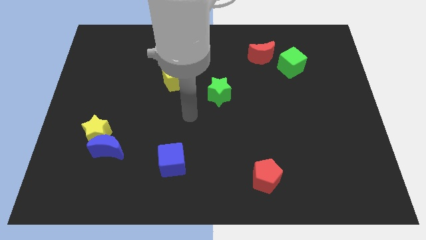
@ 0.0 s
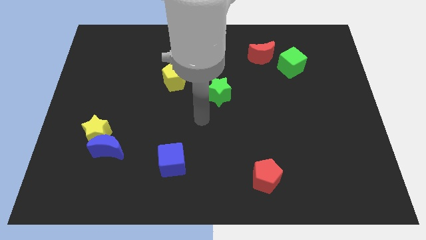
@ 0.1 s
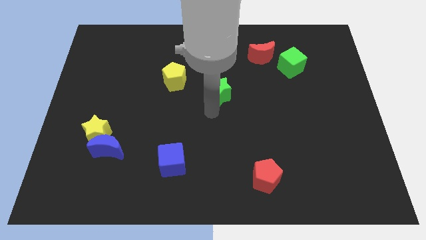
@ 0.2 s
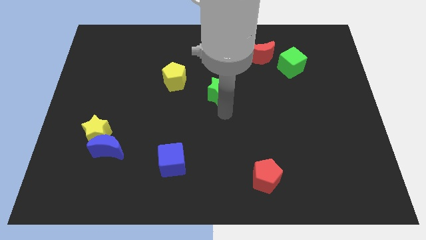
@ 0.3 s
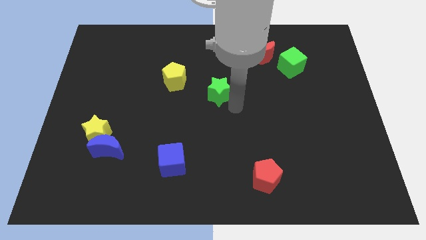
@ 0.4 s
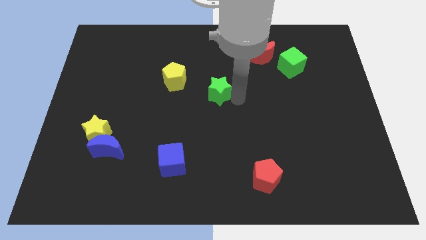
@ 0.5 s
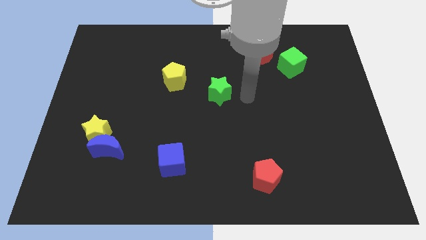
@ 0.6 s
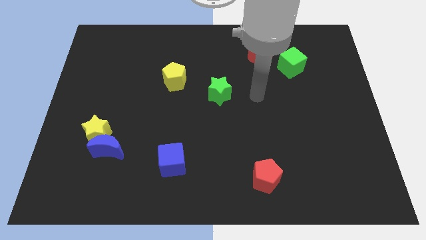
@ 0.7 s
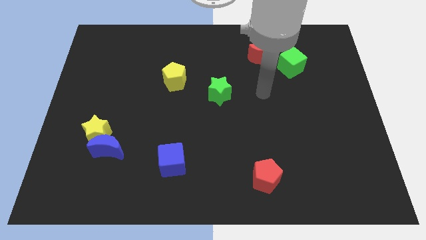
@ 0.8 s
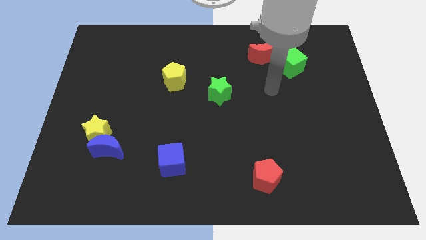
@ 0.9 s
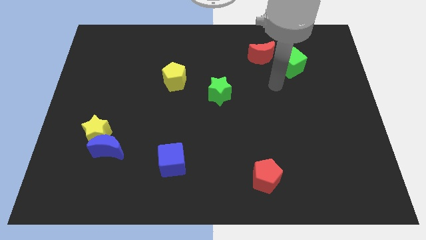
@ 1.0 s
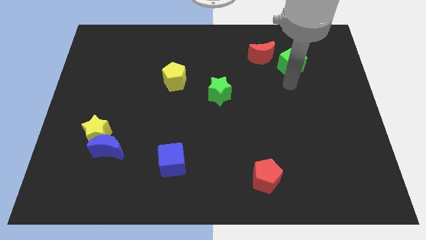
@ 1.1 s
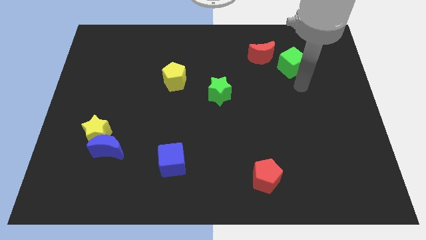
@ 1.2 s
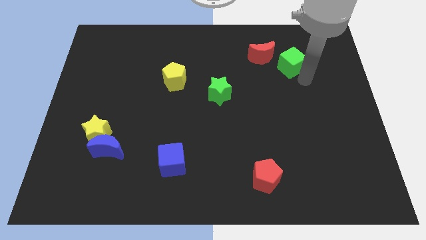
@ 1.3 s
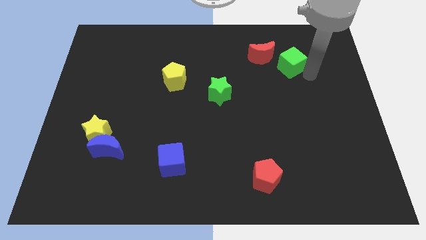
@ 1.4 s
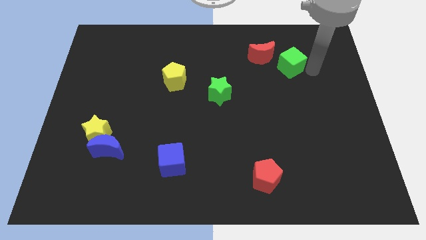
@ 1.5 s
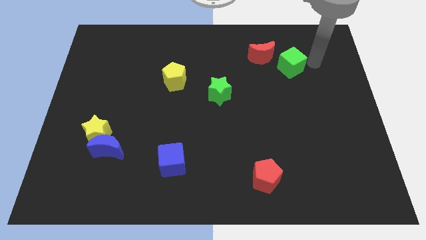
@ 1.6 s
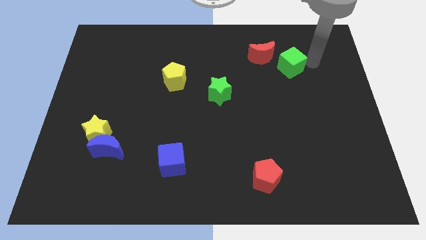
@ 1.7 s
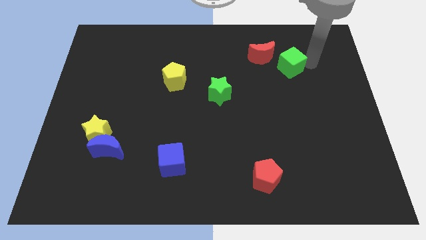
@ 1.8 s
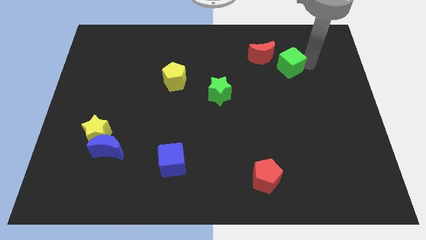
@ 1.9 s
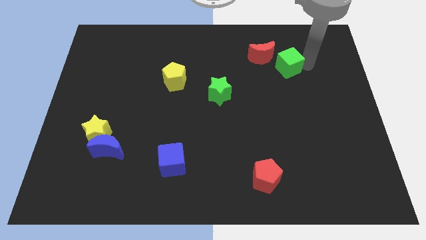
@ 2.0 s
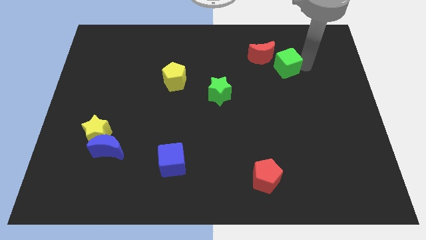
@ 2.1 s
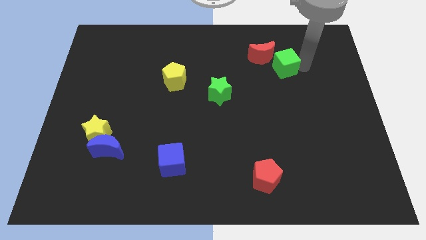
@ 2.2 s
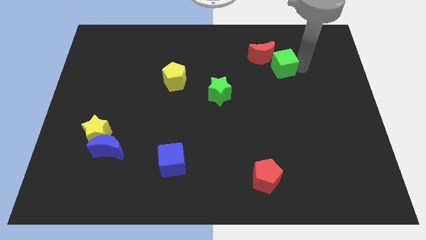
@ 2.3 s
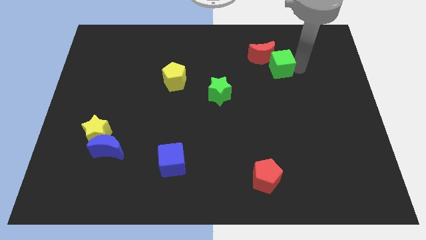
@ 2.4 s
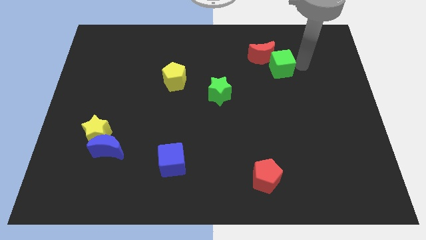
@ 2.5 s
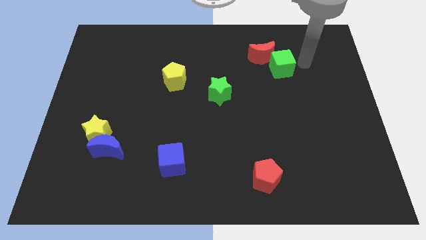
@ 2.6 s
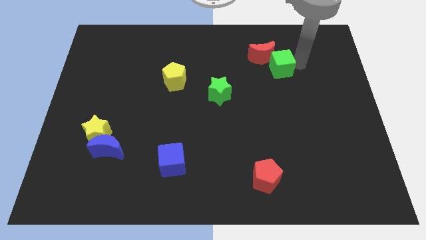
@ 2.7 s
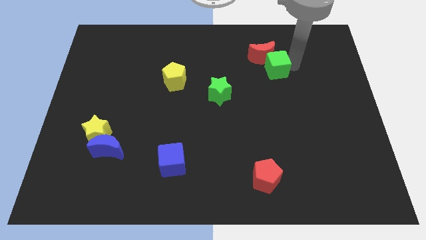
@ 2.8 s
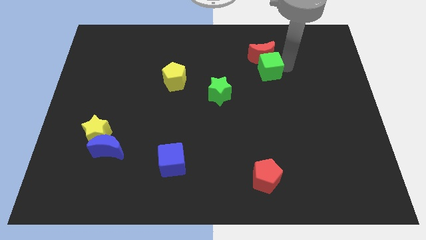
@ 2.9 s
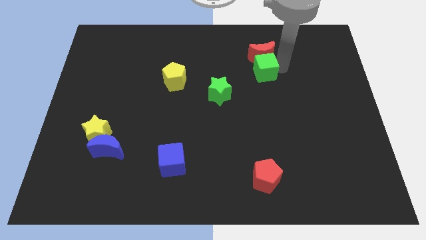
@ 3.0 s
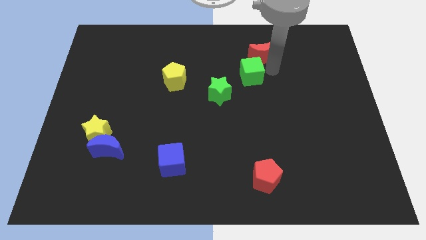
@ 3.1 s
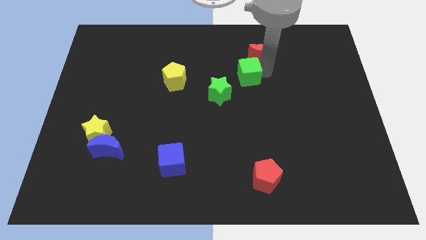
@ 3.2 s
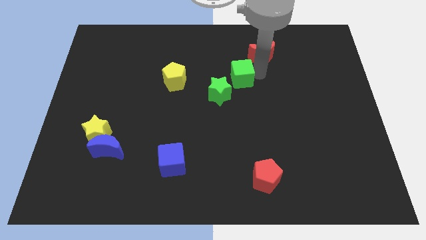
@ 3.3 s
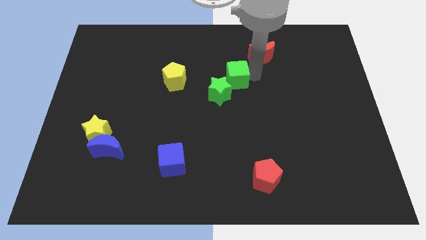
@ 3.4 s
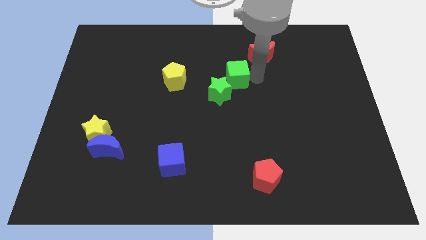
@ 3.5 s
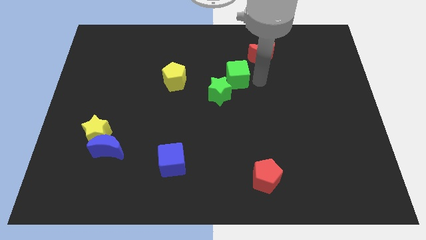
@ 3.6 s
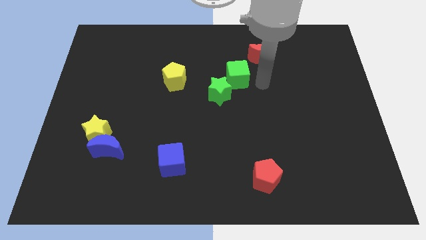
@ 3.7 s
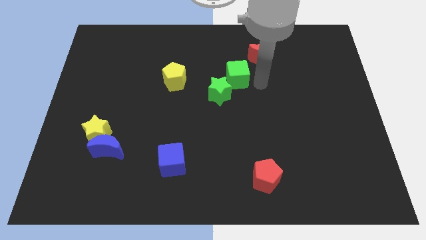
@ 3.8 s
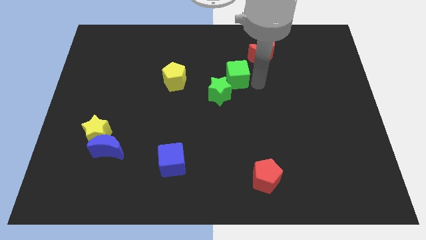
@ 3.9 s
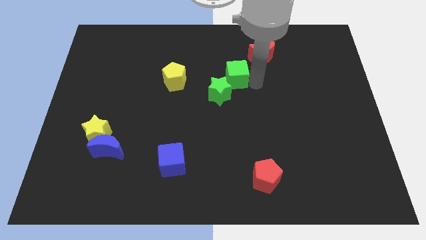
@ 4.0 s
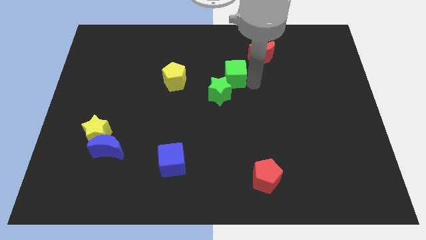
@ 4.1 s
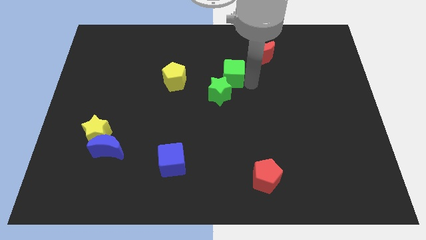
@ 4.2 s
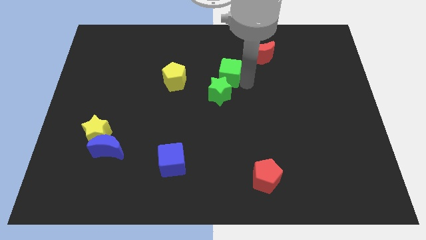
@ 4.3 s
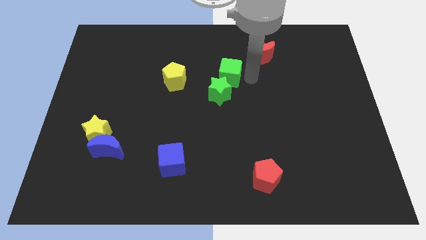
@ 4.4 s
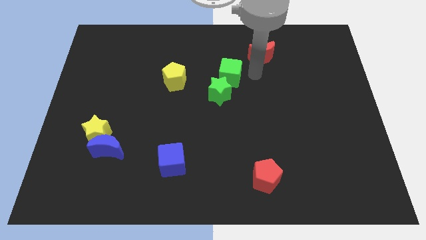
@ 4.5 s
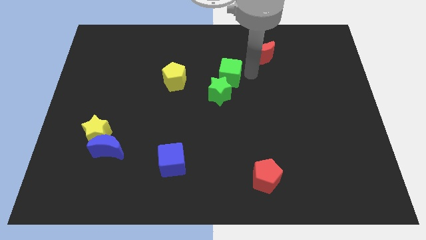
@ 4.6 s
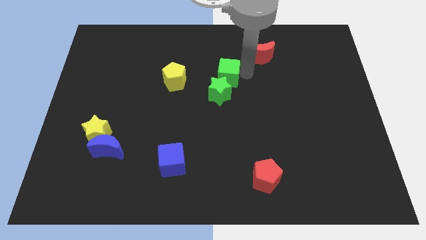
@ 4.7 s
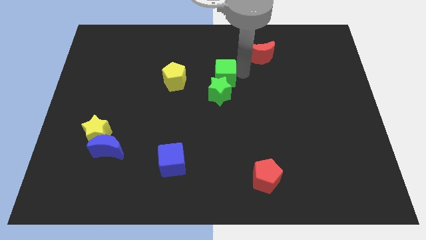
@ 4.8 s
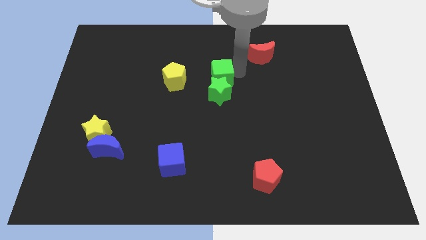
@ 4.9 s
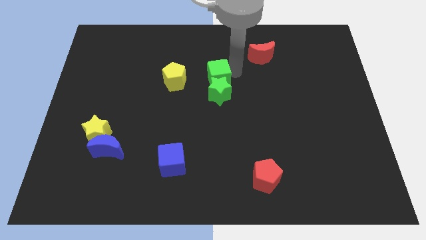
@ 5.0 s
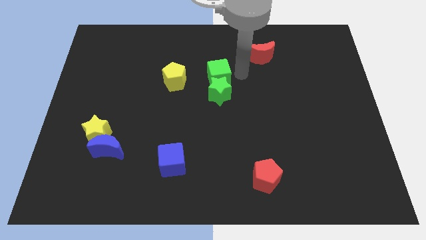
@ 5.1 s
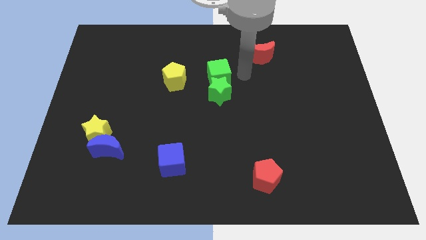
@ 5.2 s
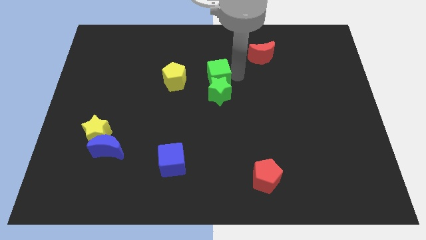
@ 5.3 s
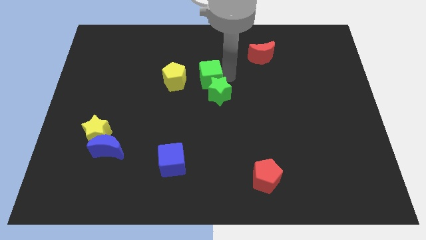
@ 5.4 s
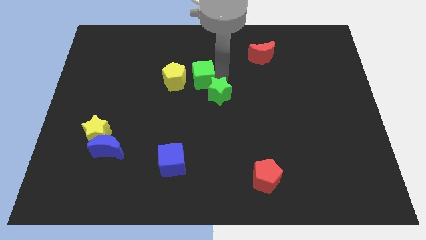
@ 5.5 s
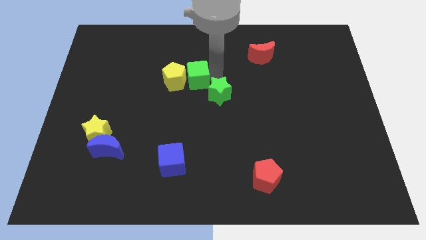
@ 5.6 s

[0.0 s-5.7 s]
push the green cube towards the yellow pentagon
